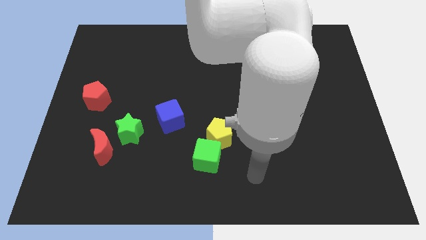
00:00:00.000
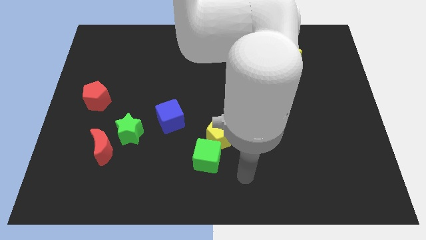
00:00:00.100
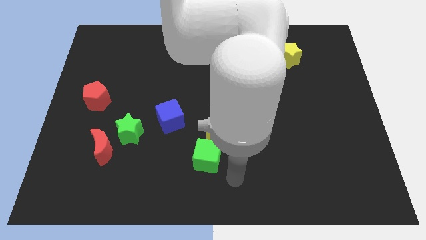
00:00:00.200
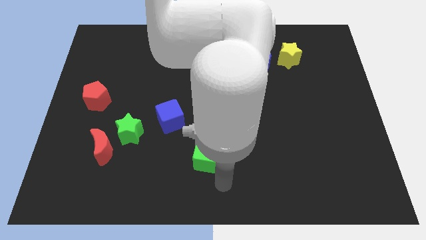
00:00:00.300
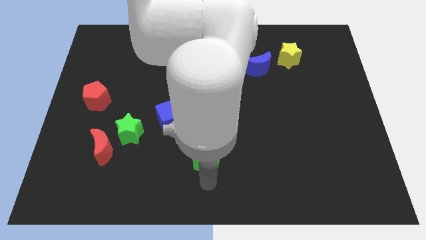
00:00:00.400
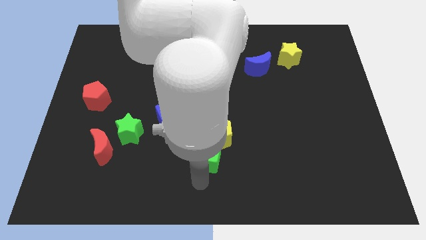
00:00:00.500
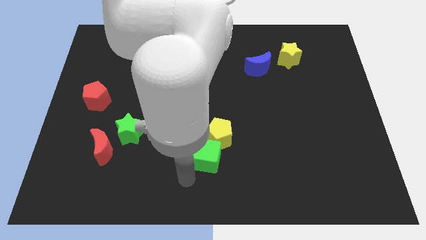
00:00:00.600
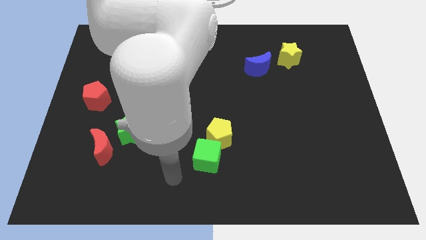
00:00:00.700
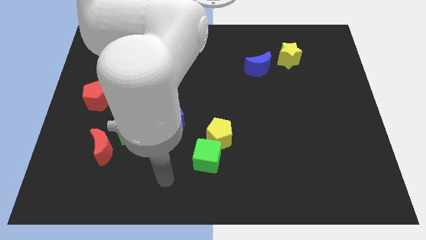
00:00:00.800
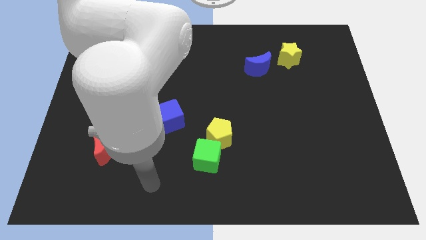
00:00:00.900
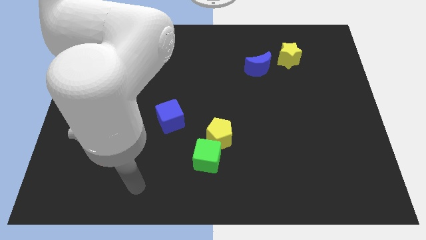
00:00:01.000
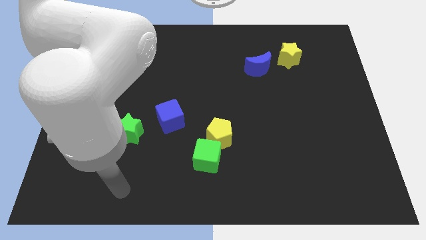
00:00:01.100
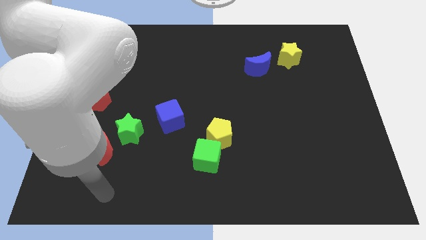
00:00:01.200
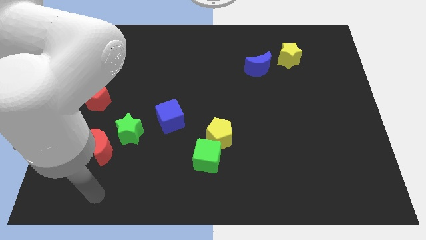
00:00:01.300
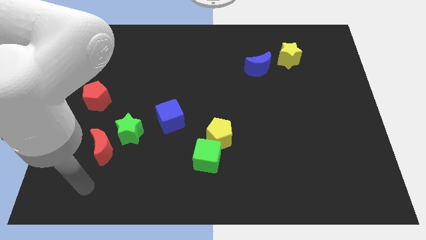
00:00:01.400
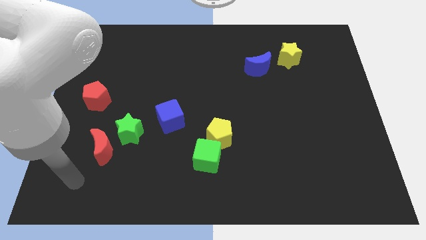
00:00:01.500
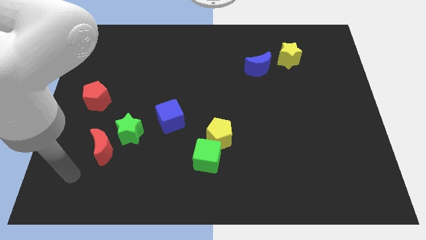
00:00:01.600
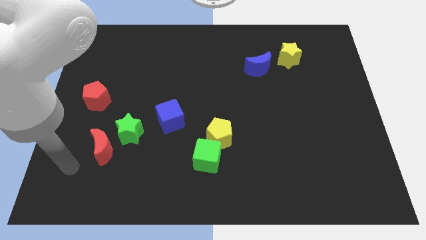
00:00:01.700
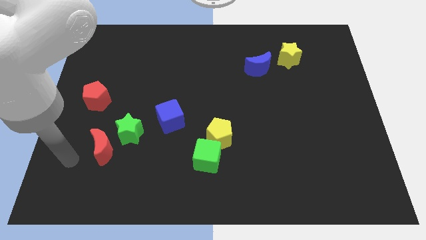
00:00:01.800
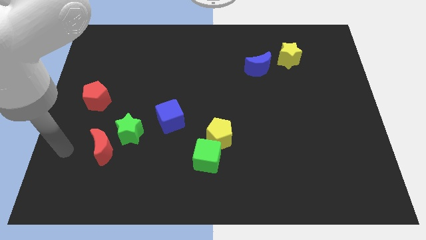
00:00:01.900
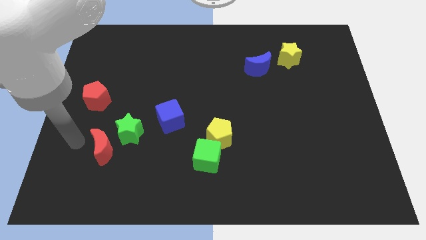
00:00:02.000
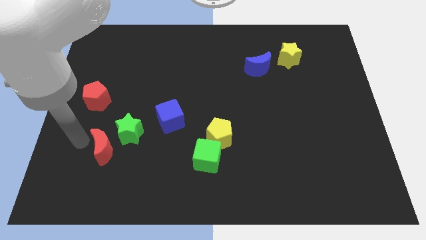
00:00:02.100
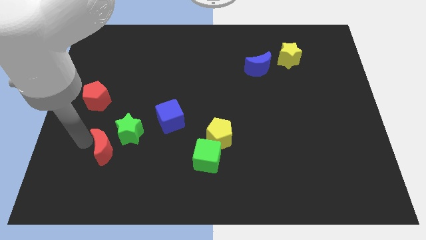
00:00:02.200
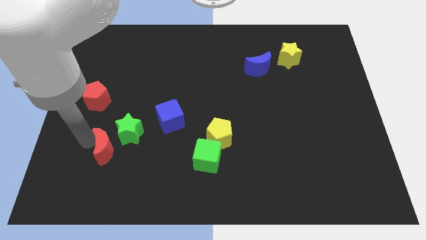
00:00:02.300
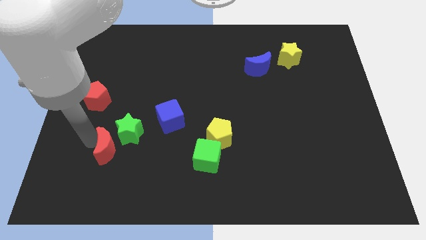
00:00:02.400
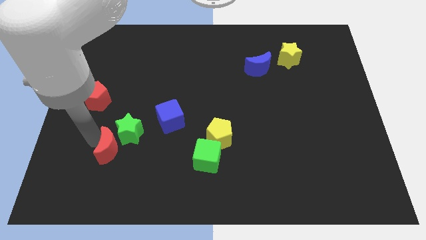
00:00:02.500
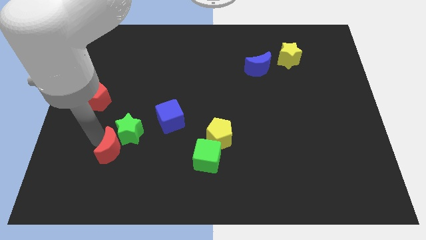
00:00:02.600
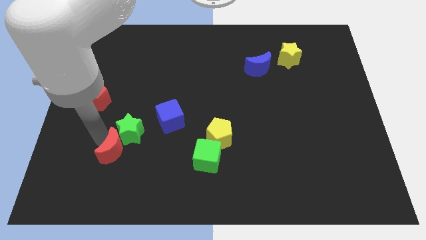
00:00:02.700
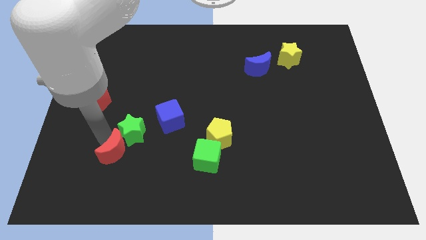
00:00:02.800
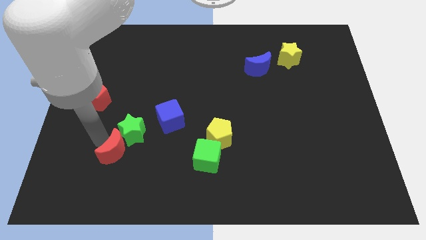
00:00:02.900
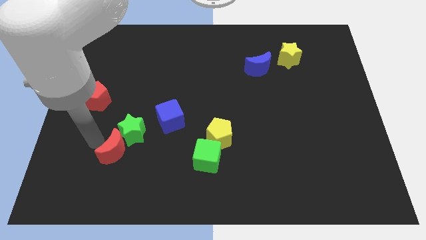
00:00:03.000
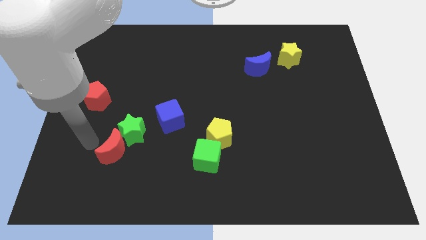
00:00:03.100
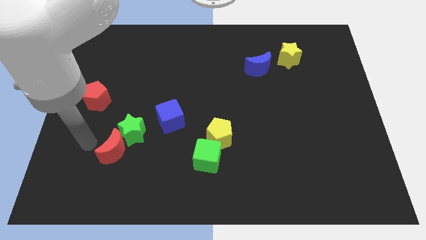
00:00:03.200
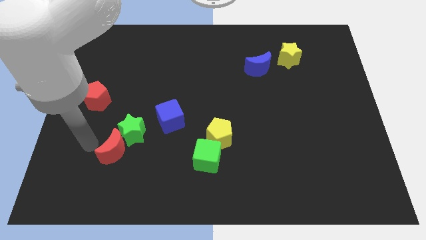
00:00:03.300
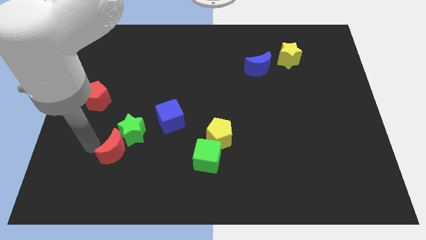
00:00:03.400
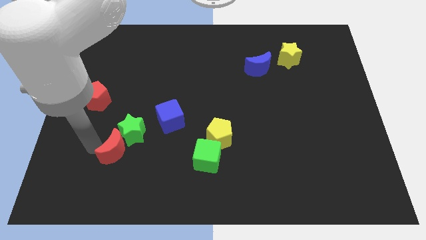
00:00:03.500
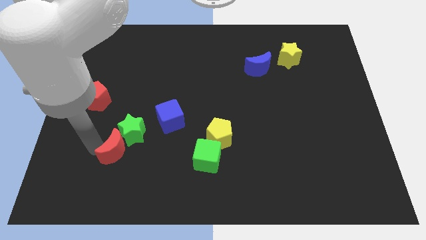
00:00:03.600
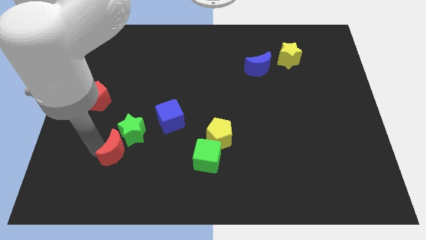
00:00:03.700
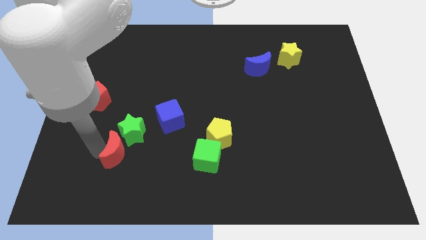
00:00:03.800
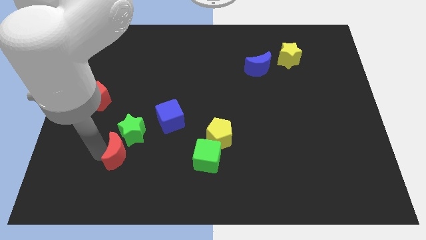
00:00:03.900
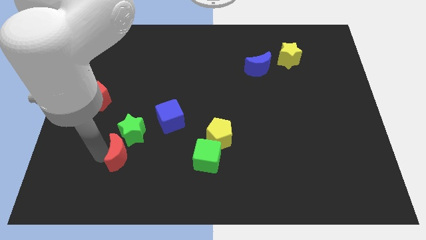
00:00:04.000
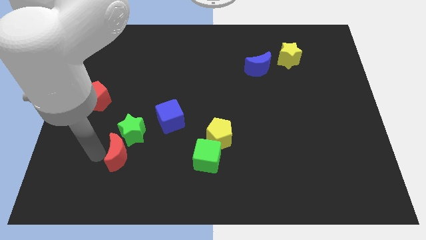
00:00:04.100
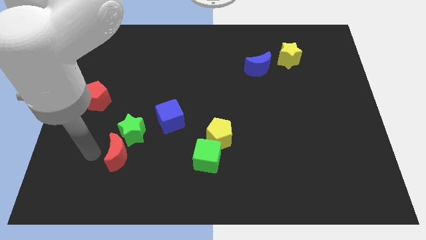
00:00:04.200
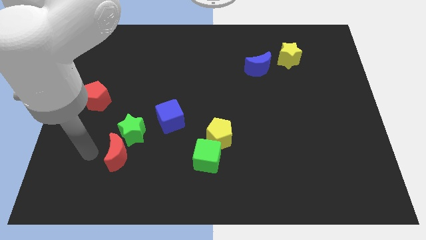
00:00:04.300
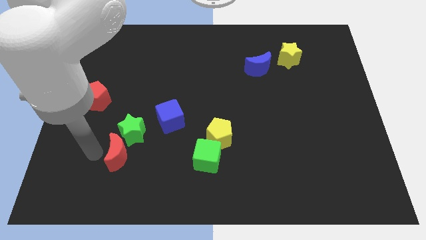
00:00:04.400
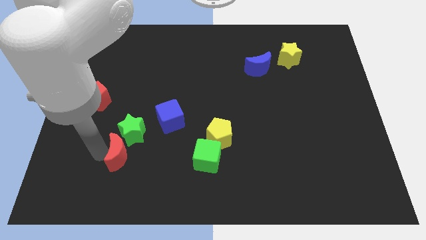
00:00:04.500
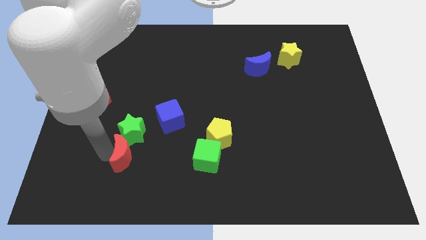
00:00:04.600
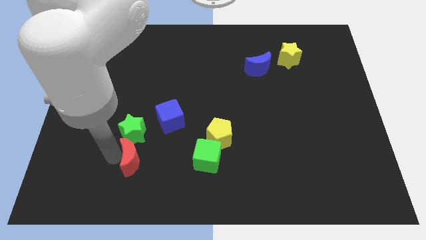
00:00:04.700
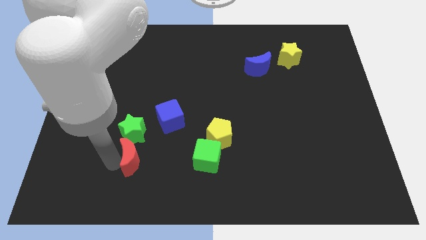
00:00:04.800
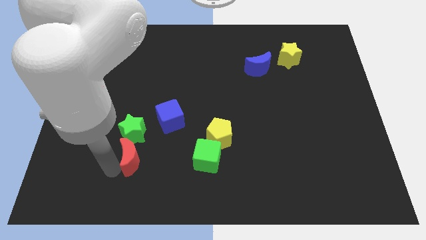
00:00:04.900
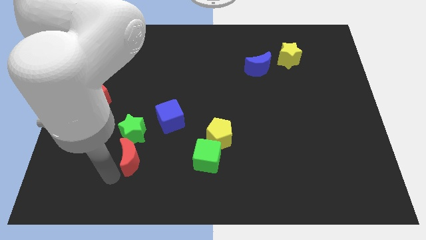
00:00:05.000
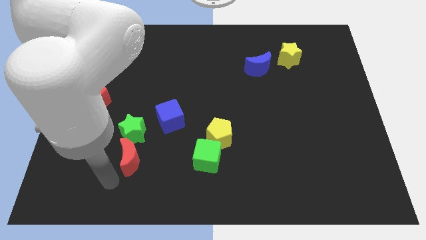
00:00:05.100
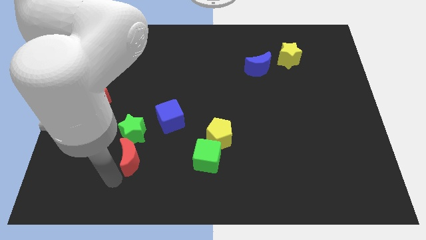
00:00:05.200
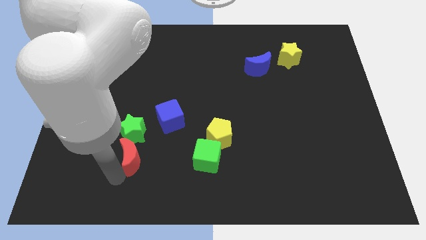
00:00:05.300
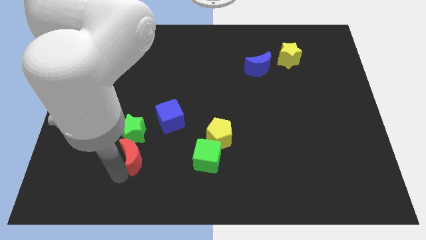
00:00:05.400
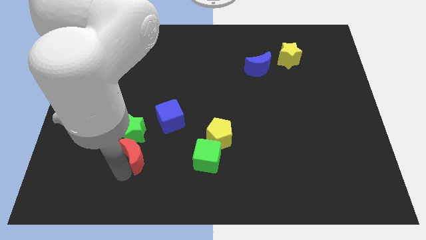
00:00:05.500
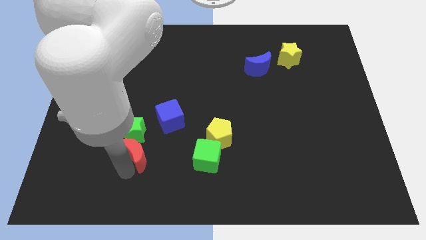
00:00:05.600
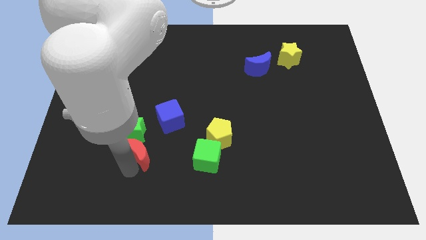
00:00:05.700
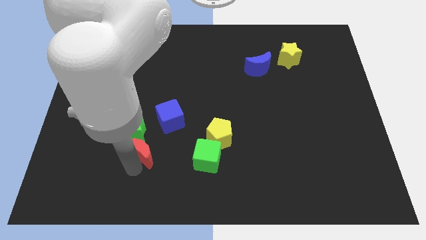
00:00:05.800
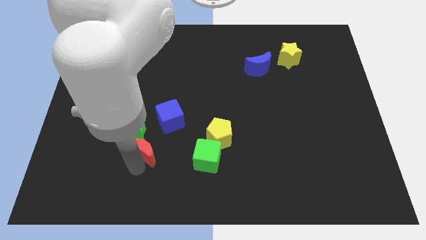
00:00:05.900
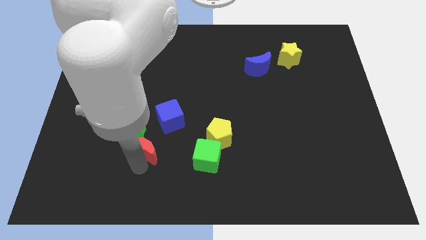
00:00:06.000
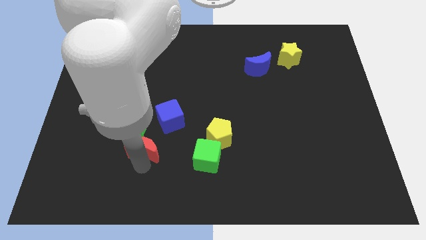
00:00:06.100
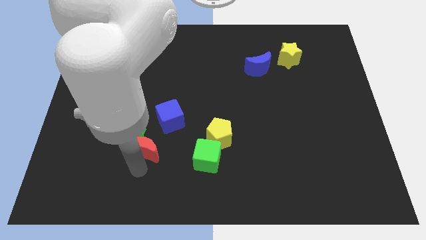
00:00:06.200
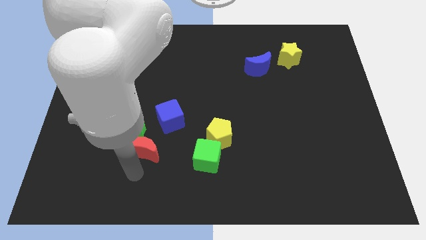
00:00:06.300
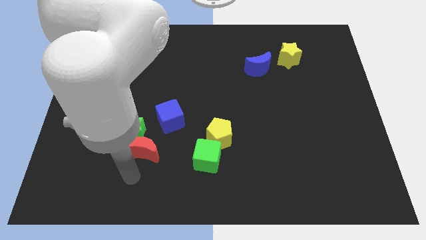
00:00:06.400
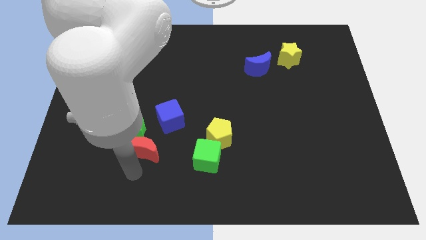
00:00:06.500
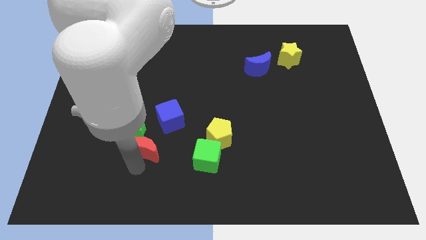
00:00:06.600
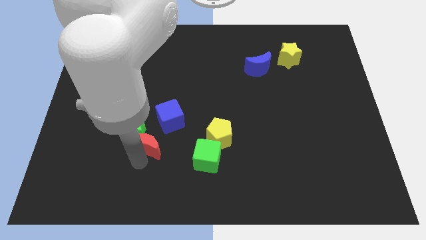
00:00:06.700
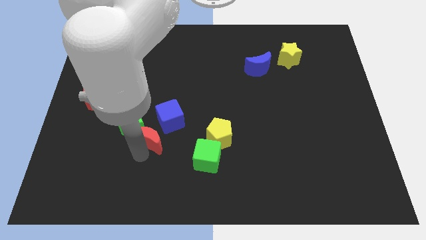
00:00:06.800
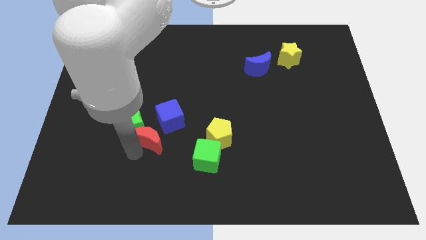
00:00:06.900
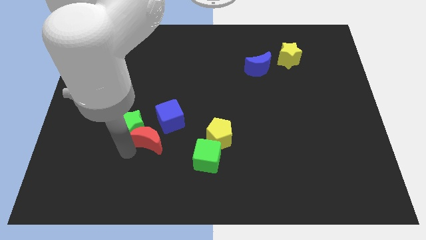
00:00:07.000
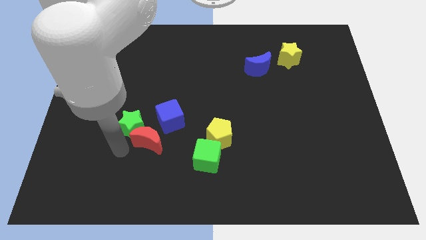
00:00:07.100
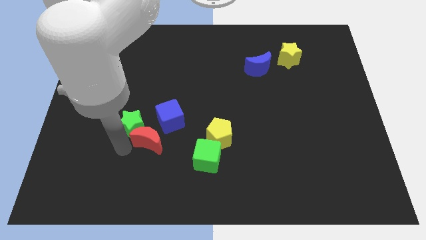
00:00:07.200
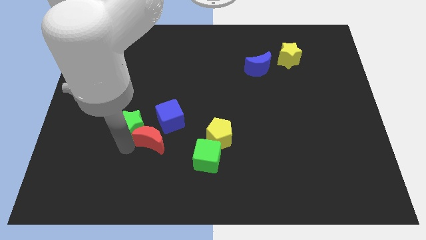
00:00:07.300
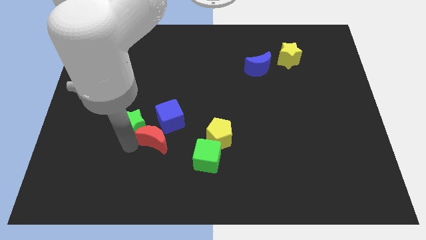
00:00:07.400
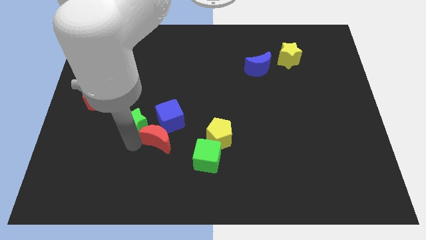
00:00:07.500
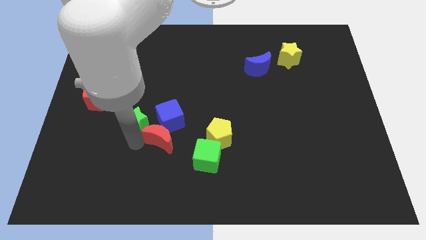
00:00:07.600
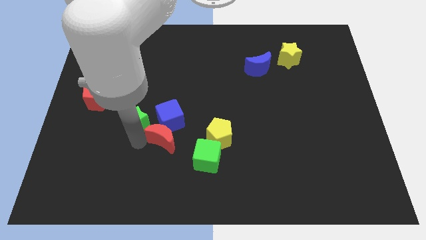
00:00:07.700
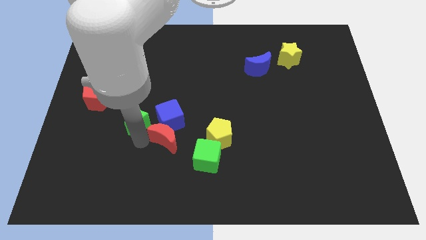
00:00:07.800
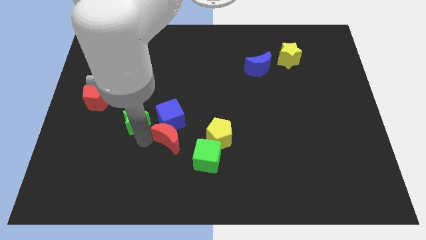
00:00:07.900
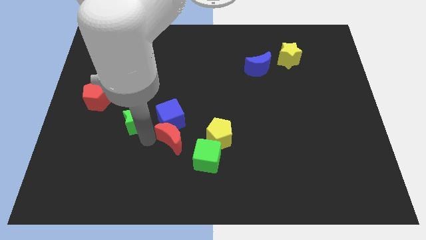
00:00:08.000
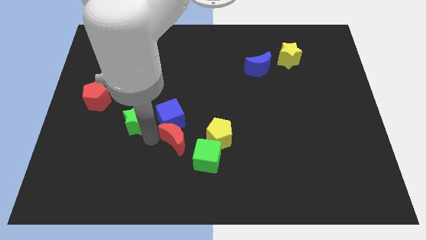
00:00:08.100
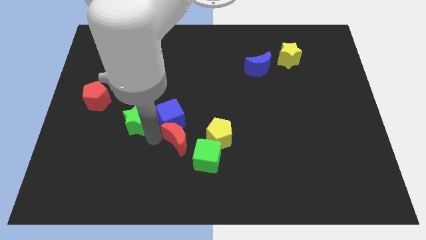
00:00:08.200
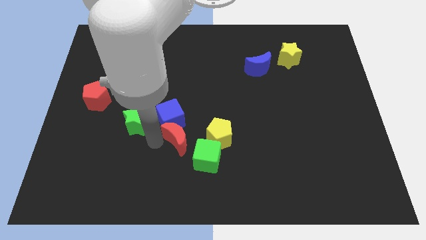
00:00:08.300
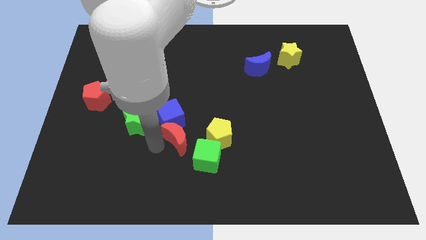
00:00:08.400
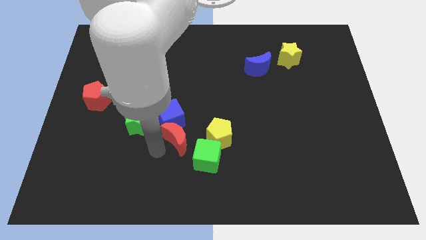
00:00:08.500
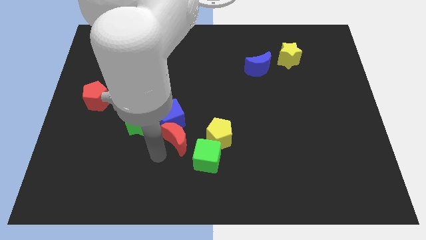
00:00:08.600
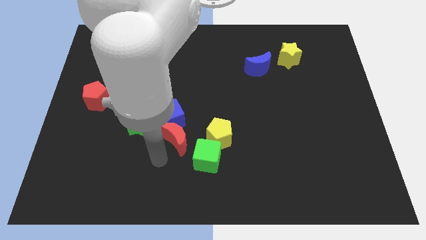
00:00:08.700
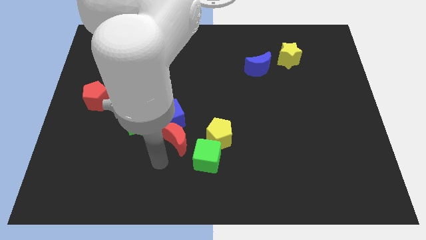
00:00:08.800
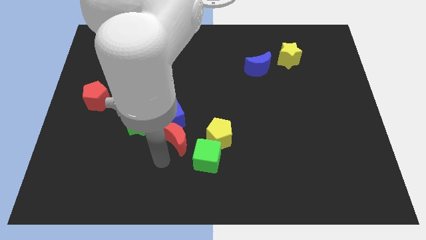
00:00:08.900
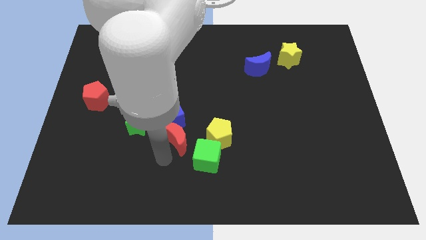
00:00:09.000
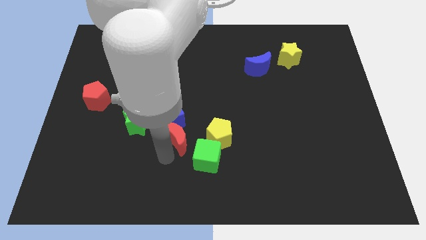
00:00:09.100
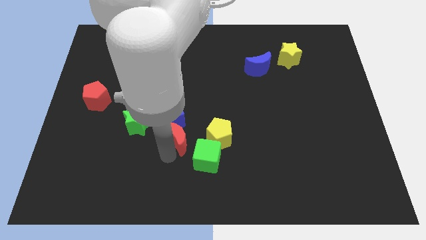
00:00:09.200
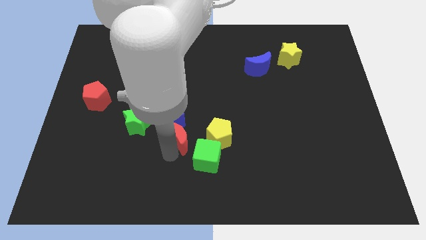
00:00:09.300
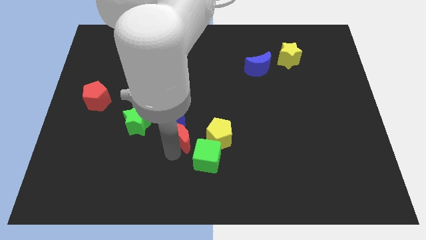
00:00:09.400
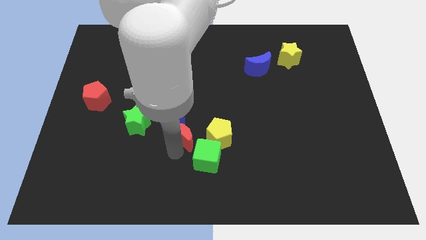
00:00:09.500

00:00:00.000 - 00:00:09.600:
put the red moon to the middle
